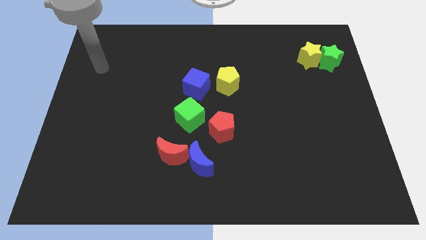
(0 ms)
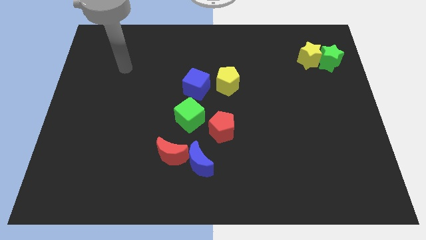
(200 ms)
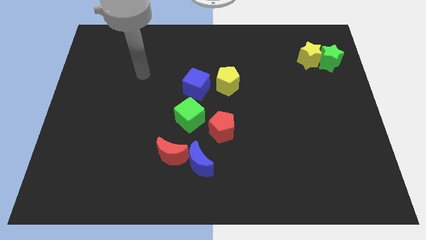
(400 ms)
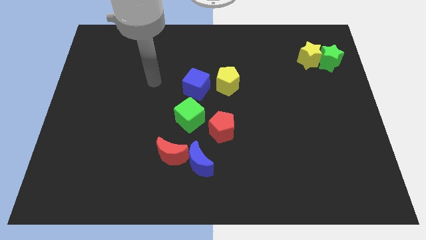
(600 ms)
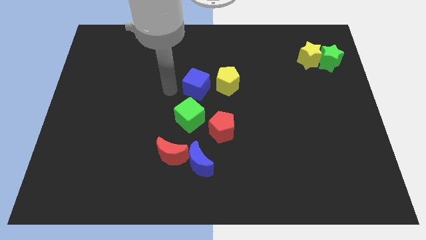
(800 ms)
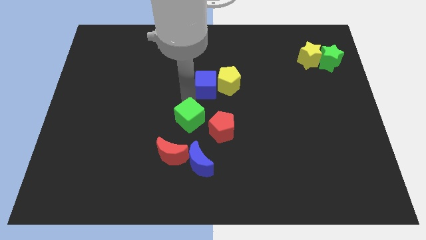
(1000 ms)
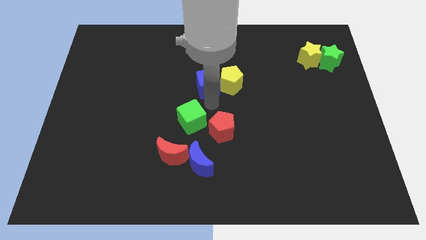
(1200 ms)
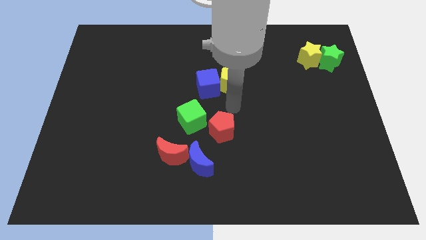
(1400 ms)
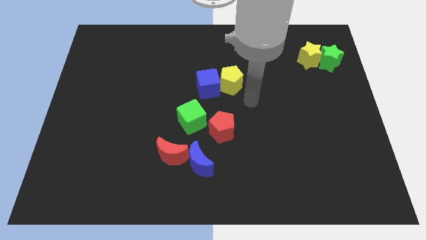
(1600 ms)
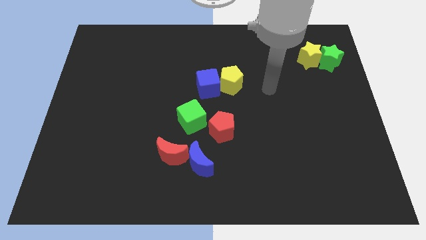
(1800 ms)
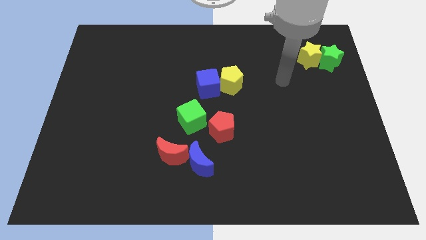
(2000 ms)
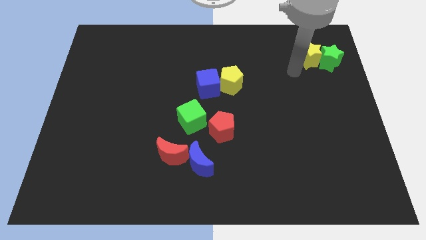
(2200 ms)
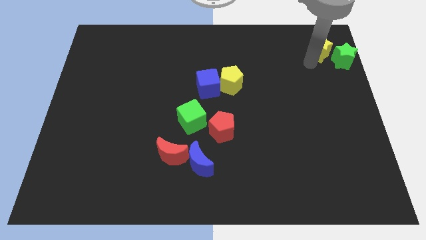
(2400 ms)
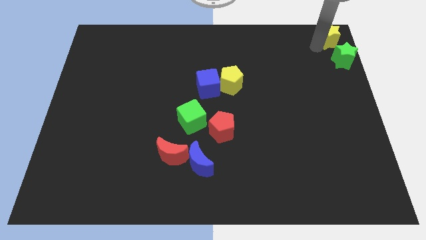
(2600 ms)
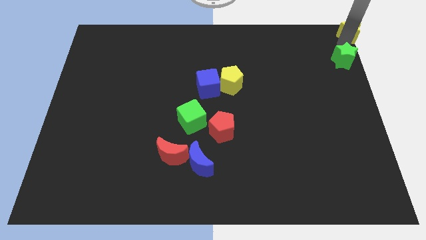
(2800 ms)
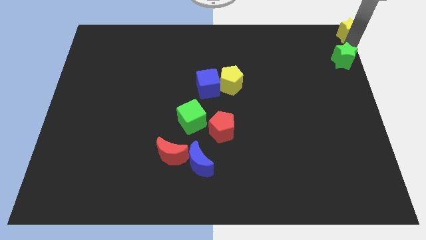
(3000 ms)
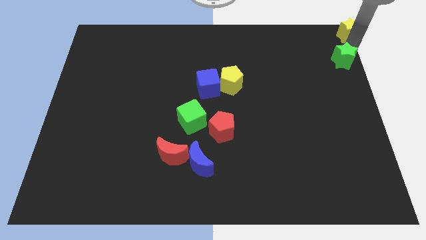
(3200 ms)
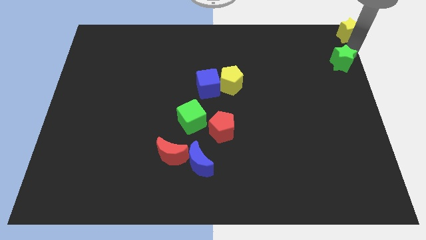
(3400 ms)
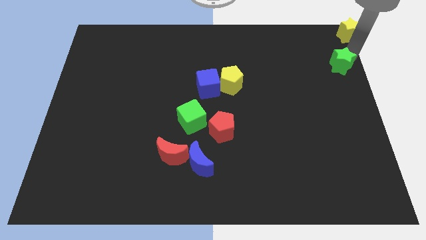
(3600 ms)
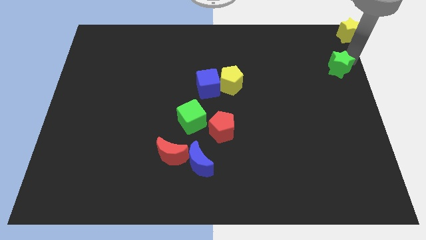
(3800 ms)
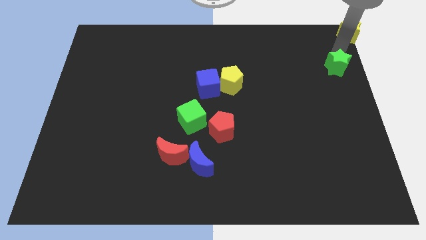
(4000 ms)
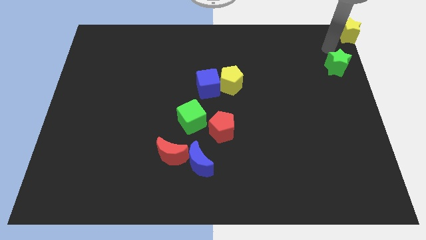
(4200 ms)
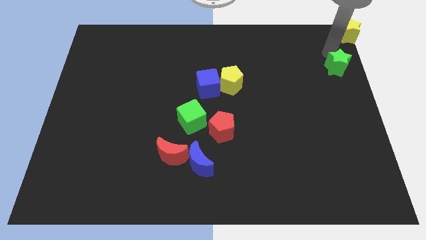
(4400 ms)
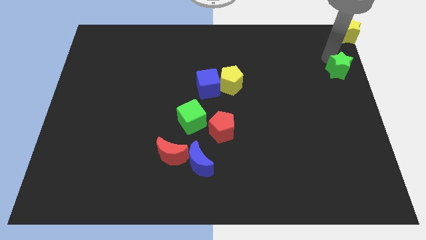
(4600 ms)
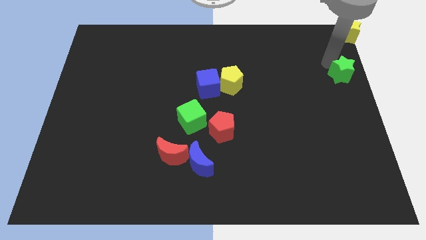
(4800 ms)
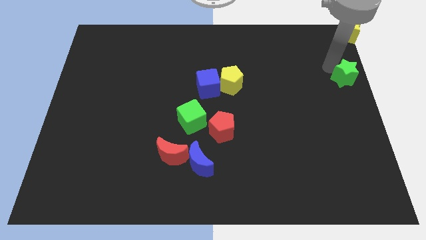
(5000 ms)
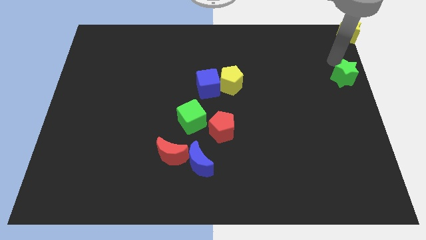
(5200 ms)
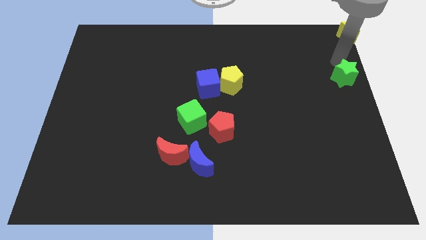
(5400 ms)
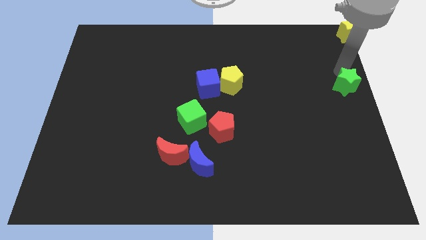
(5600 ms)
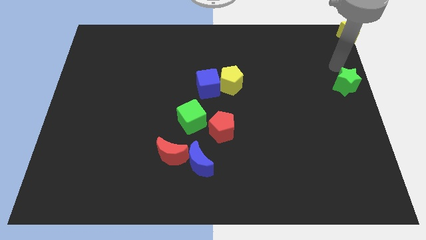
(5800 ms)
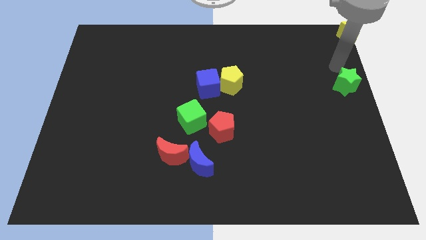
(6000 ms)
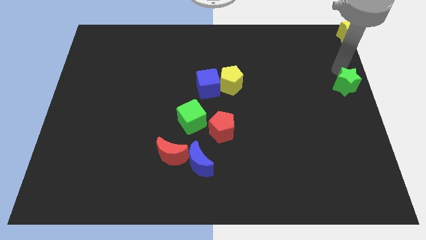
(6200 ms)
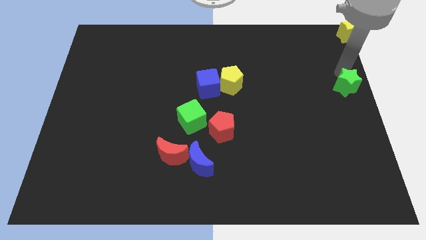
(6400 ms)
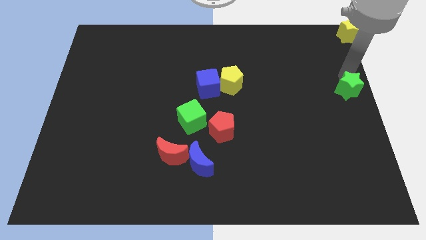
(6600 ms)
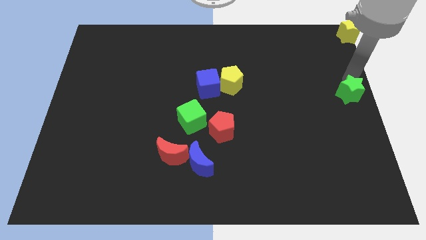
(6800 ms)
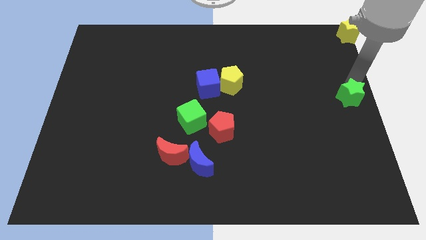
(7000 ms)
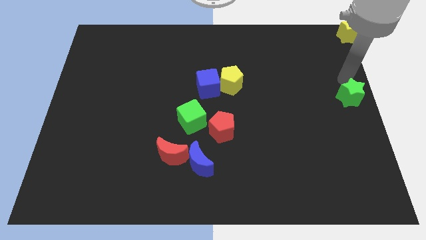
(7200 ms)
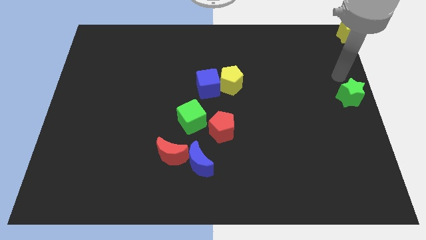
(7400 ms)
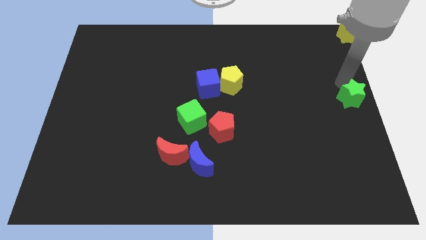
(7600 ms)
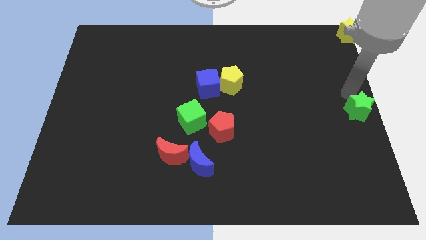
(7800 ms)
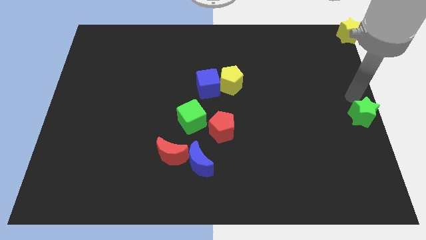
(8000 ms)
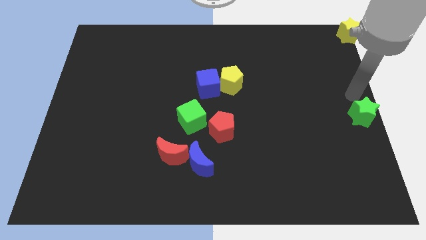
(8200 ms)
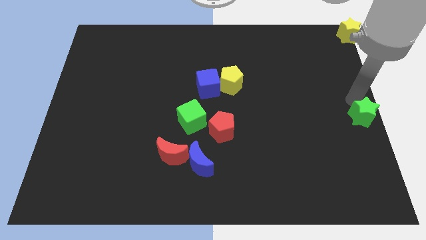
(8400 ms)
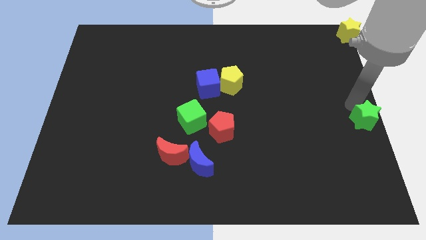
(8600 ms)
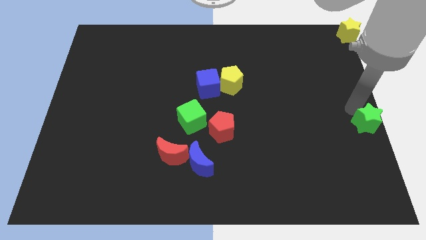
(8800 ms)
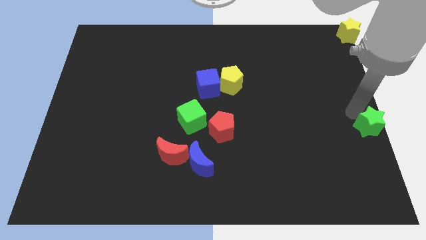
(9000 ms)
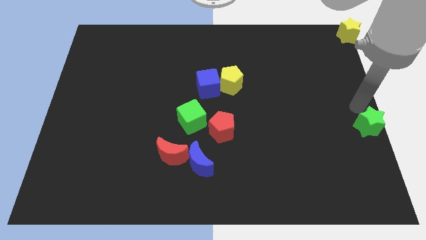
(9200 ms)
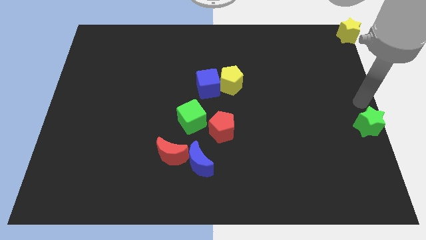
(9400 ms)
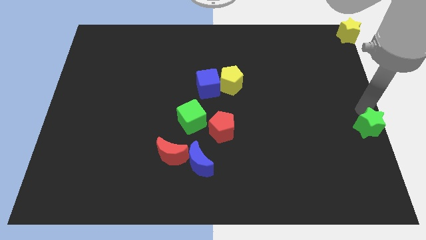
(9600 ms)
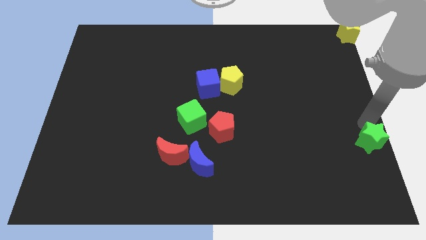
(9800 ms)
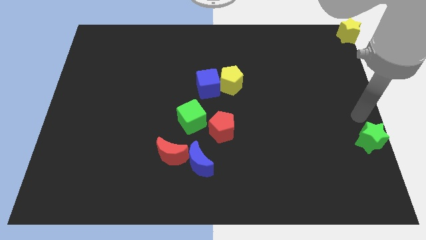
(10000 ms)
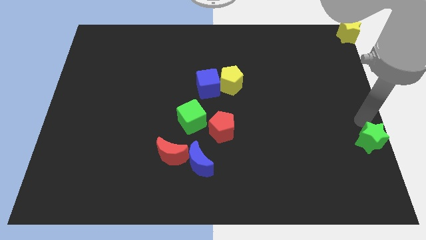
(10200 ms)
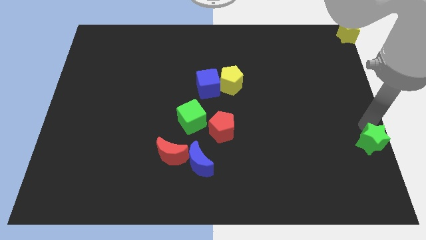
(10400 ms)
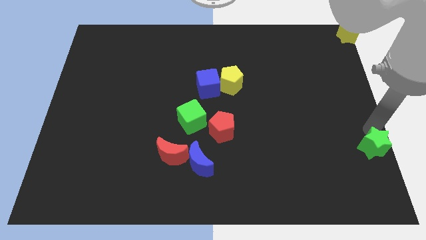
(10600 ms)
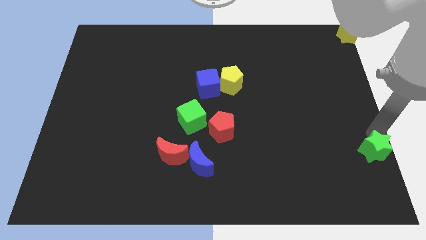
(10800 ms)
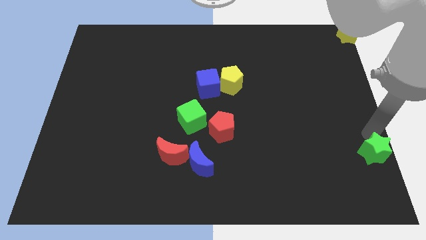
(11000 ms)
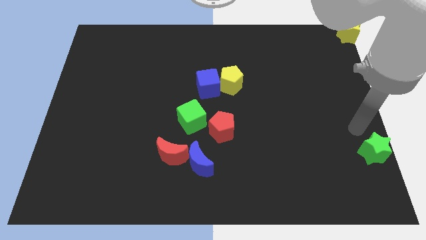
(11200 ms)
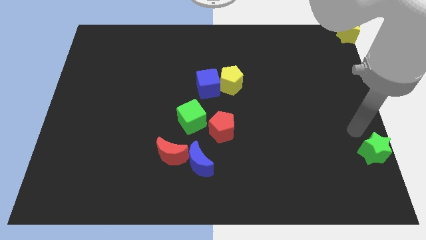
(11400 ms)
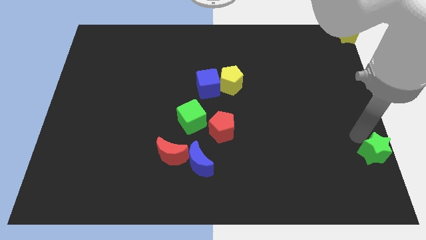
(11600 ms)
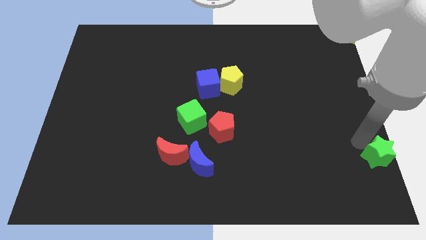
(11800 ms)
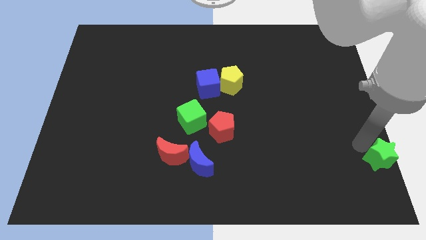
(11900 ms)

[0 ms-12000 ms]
push the green star to the lower right corner

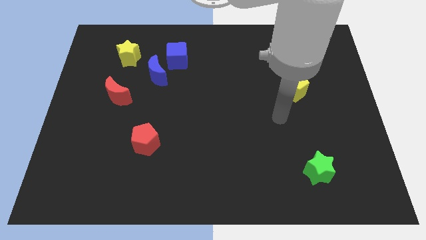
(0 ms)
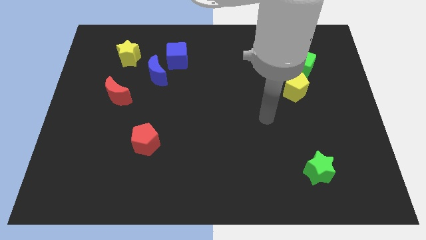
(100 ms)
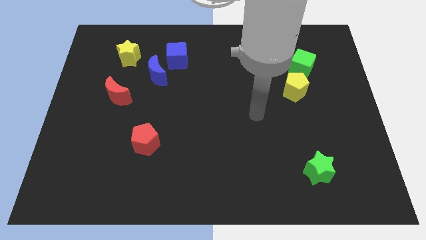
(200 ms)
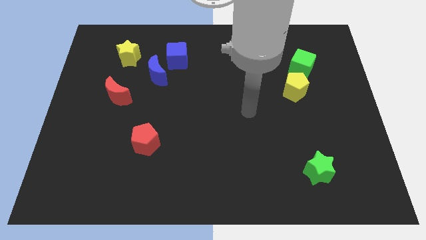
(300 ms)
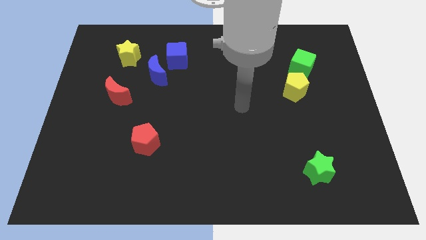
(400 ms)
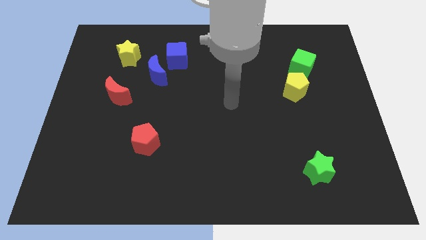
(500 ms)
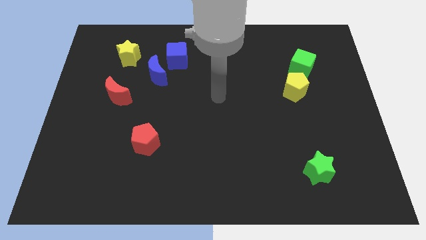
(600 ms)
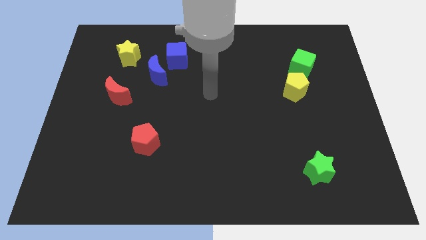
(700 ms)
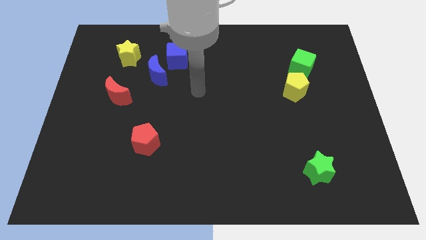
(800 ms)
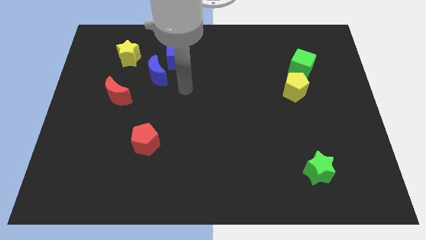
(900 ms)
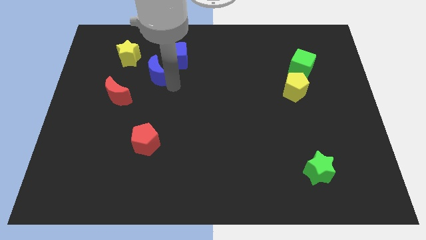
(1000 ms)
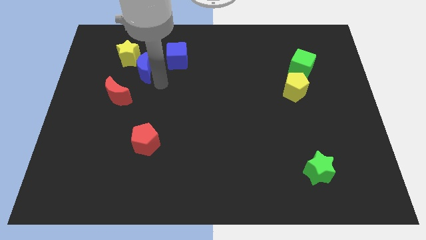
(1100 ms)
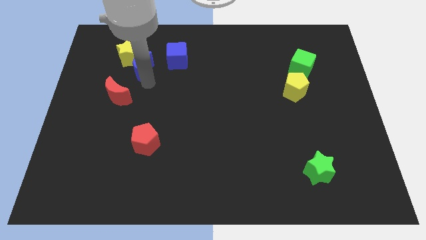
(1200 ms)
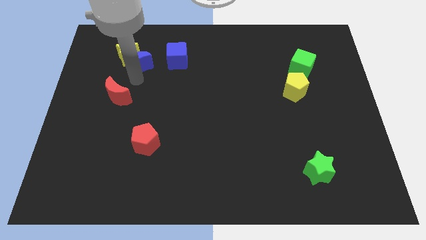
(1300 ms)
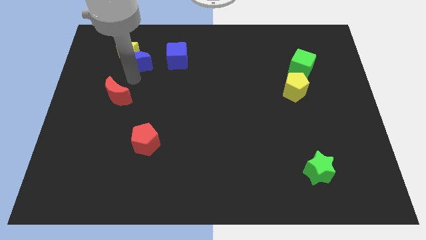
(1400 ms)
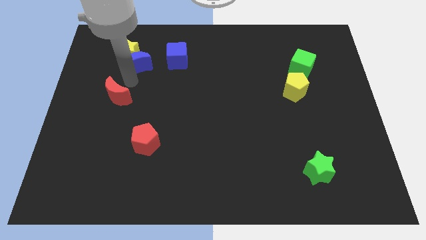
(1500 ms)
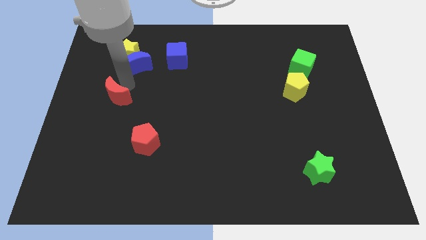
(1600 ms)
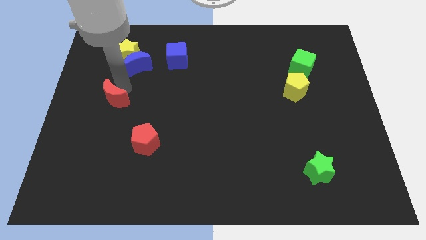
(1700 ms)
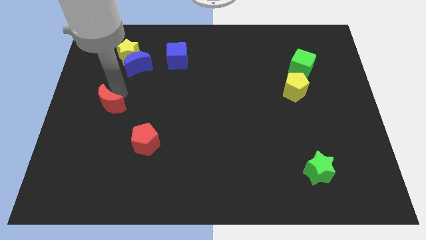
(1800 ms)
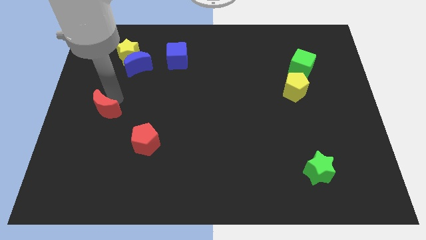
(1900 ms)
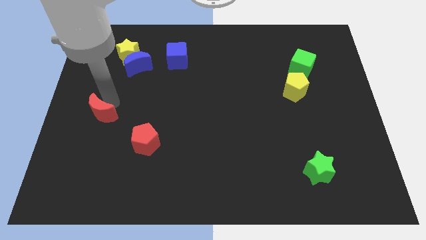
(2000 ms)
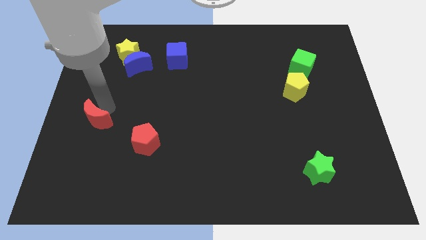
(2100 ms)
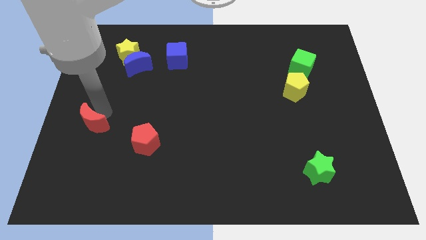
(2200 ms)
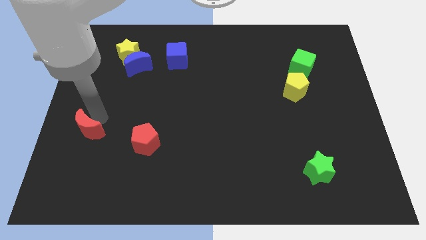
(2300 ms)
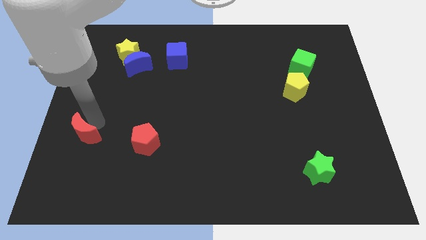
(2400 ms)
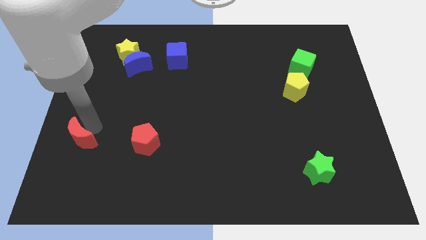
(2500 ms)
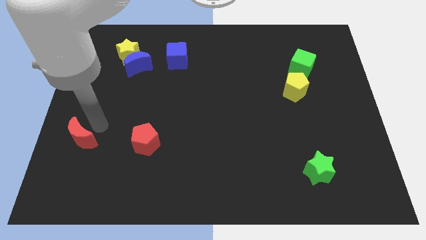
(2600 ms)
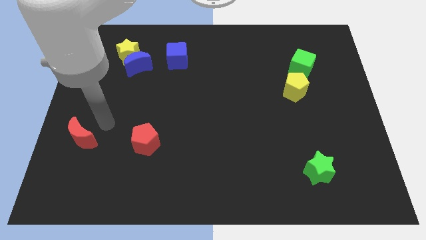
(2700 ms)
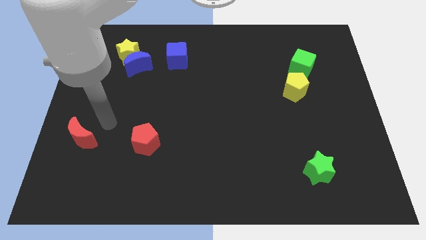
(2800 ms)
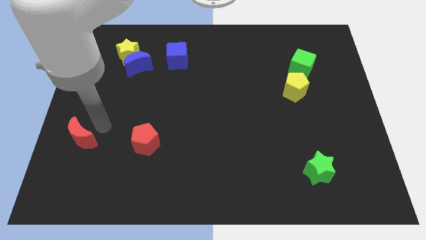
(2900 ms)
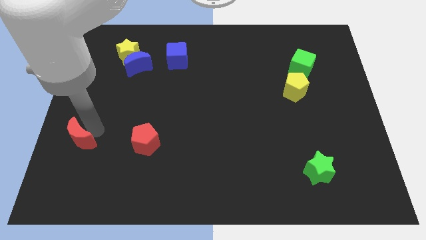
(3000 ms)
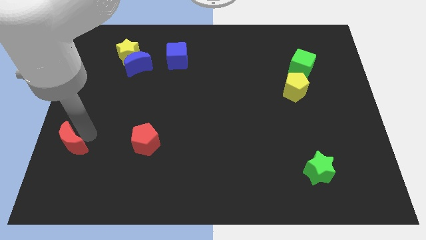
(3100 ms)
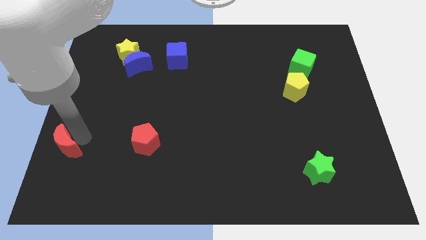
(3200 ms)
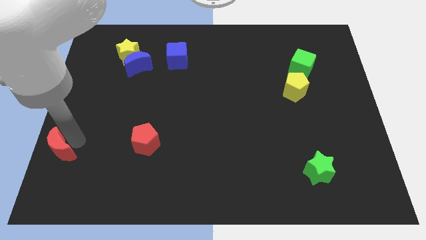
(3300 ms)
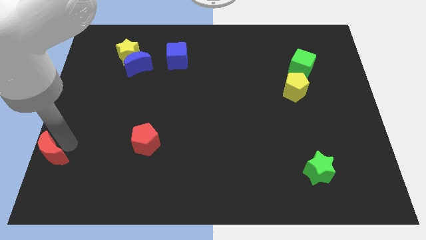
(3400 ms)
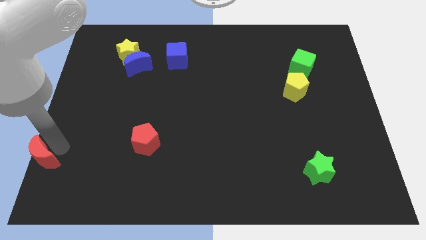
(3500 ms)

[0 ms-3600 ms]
slide the red moon to the bottom left of the board
